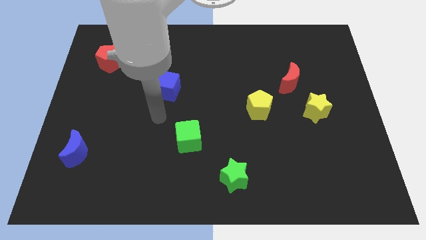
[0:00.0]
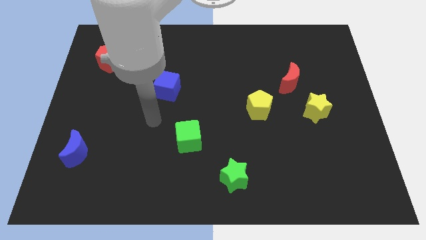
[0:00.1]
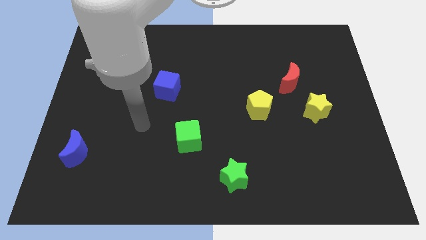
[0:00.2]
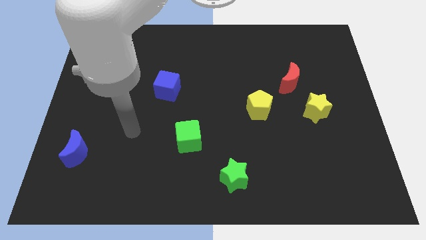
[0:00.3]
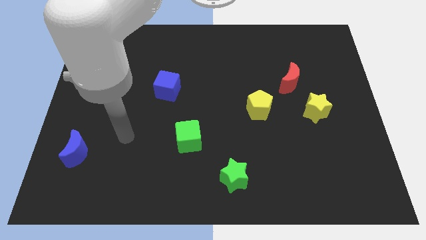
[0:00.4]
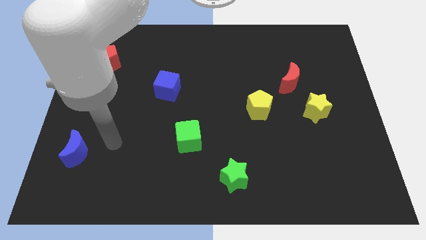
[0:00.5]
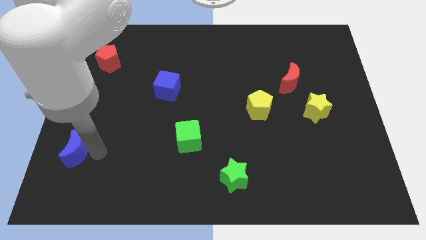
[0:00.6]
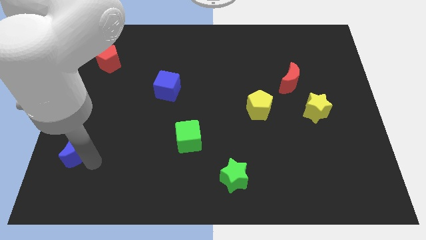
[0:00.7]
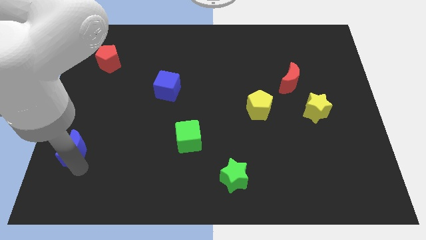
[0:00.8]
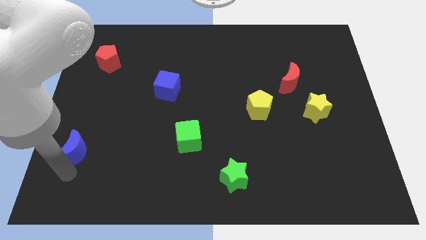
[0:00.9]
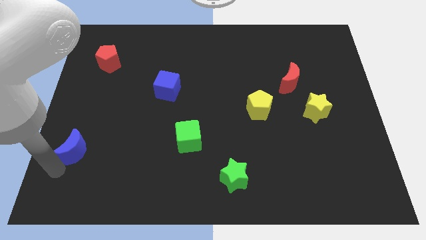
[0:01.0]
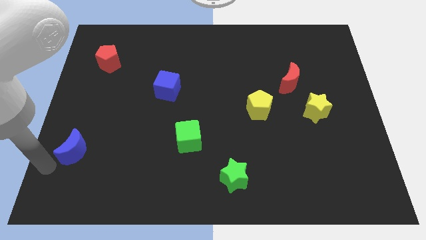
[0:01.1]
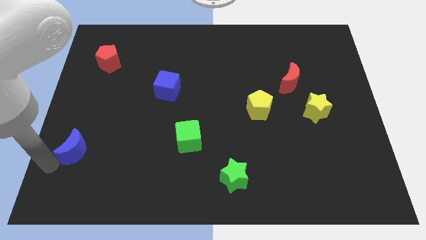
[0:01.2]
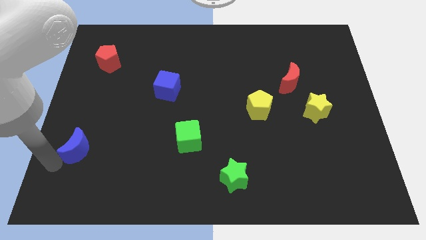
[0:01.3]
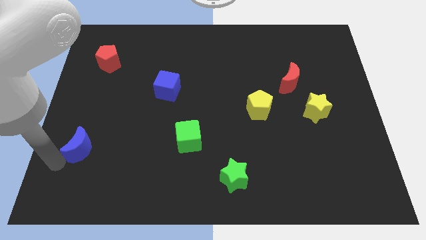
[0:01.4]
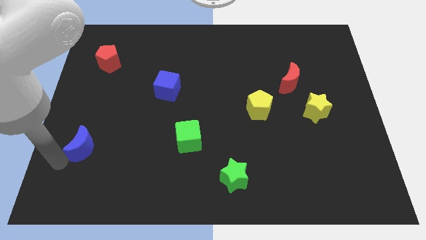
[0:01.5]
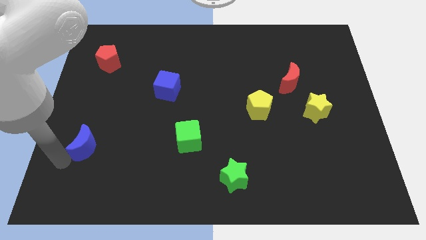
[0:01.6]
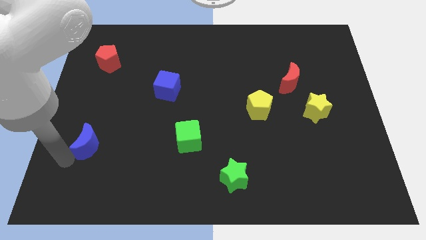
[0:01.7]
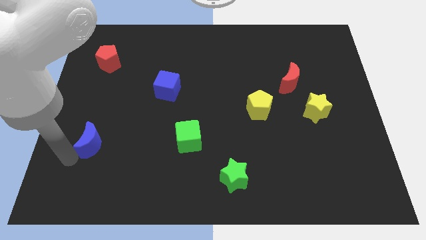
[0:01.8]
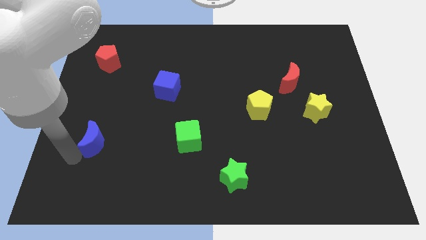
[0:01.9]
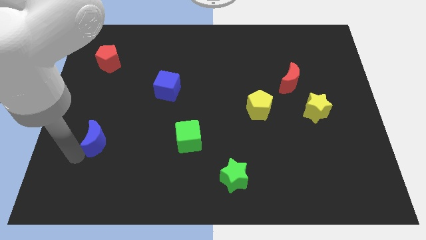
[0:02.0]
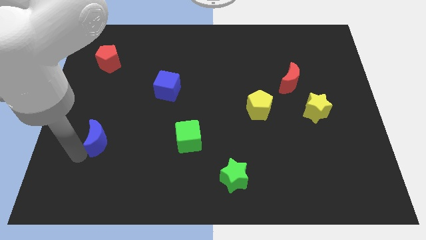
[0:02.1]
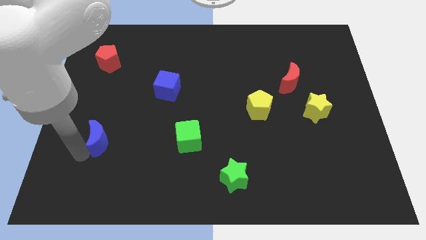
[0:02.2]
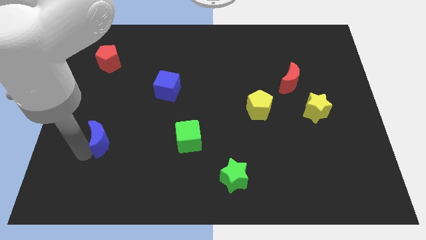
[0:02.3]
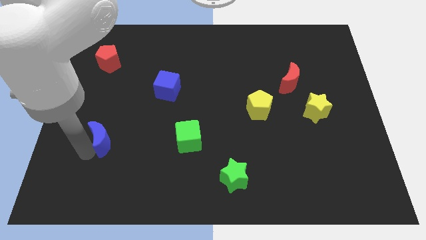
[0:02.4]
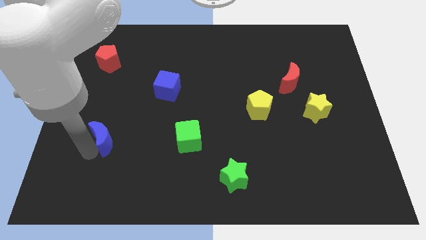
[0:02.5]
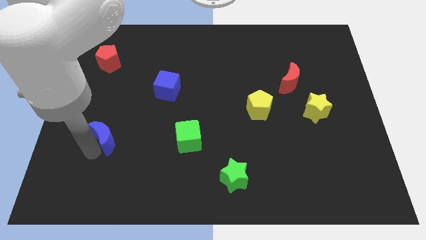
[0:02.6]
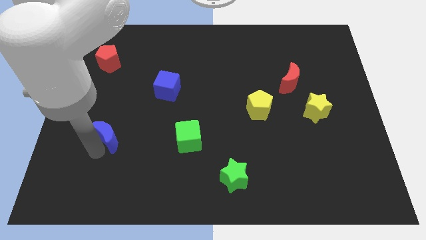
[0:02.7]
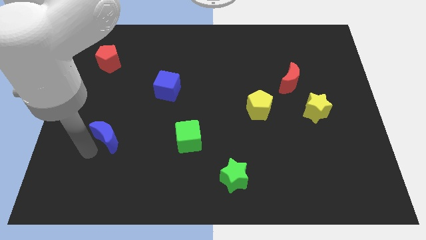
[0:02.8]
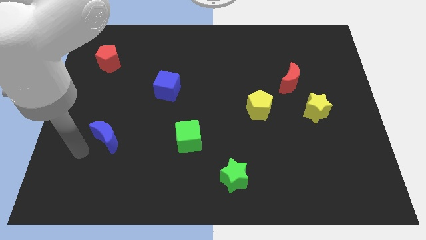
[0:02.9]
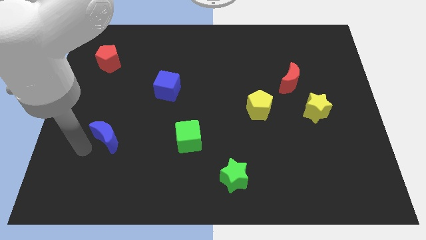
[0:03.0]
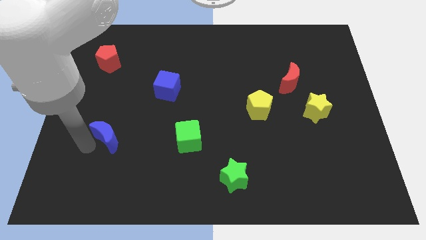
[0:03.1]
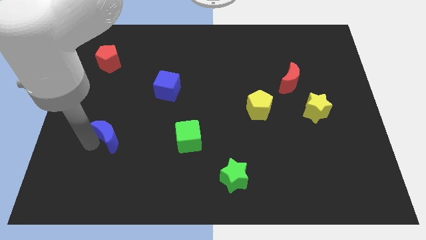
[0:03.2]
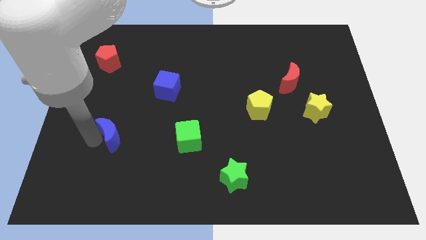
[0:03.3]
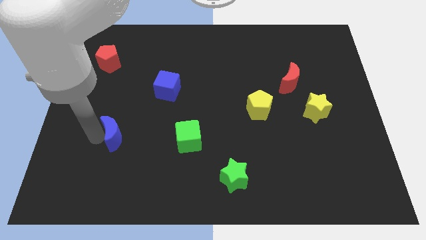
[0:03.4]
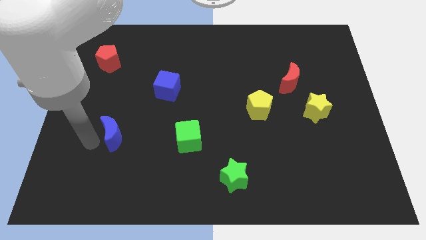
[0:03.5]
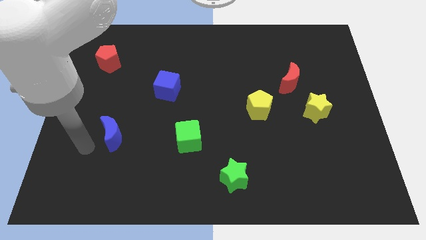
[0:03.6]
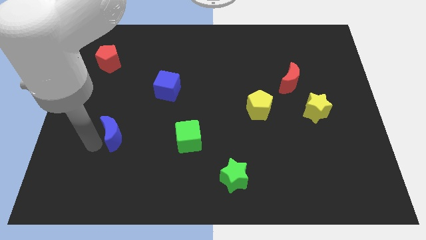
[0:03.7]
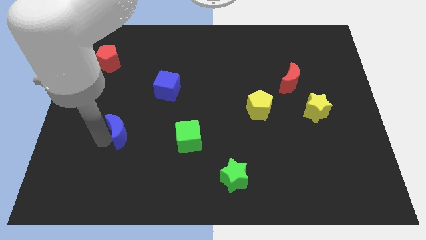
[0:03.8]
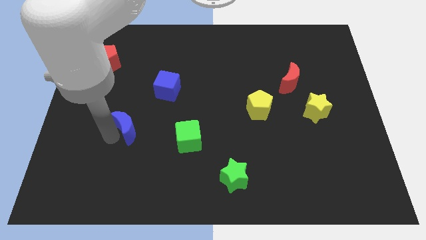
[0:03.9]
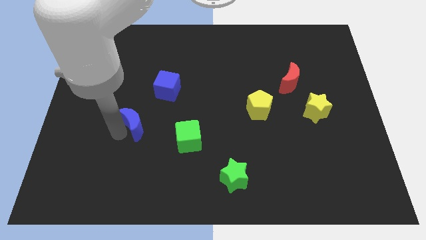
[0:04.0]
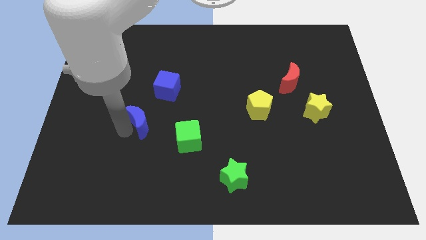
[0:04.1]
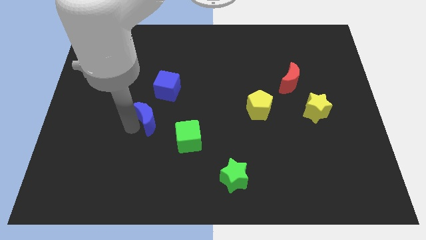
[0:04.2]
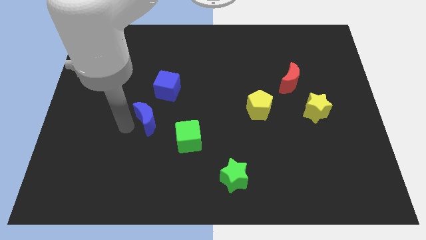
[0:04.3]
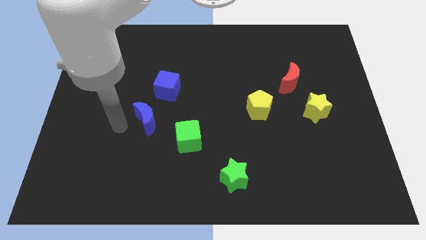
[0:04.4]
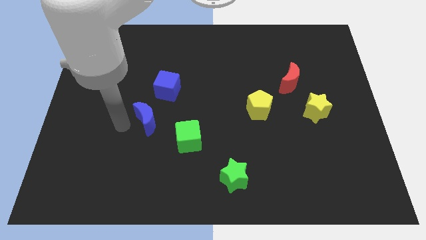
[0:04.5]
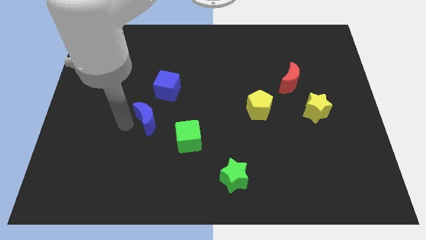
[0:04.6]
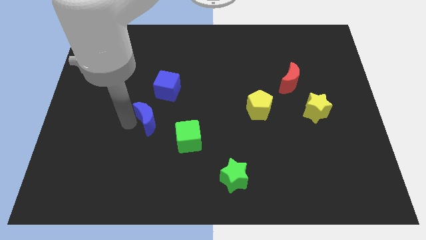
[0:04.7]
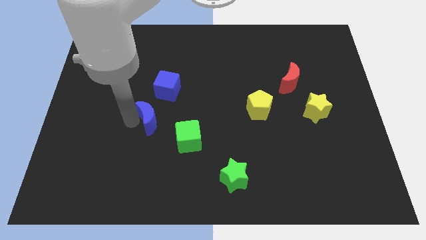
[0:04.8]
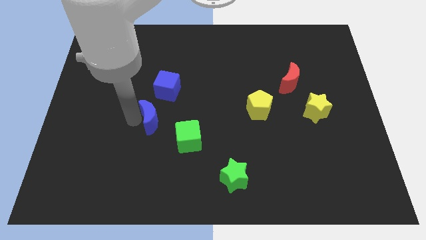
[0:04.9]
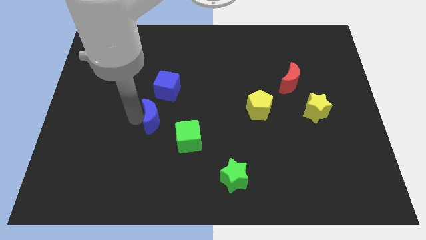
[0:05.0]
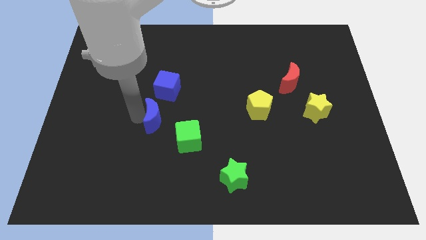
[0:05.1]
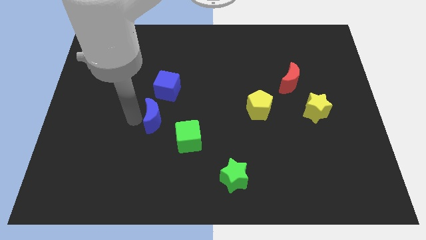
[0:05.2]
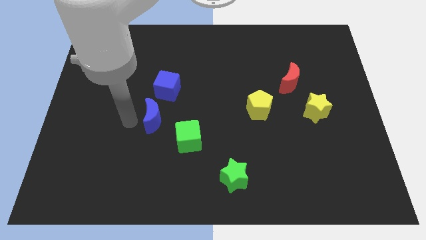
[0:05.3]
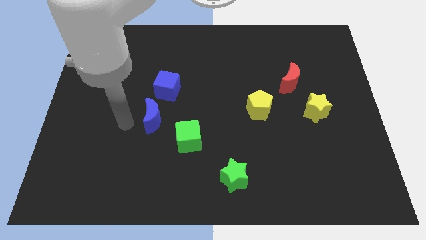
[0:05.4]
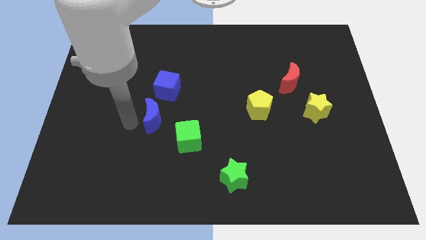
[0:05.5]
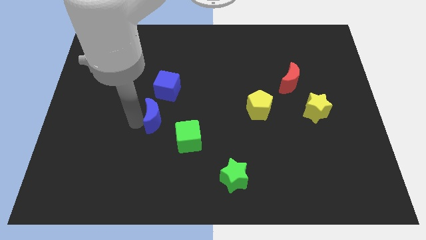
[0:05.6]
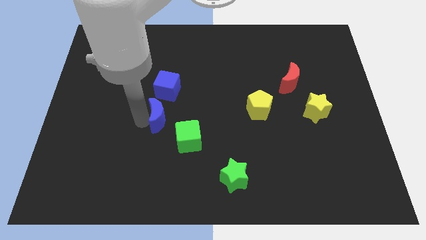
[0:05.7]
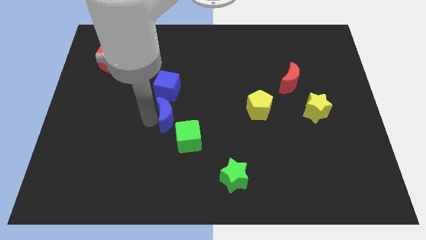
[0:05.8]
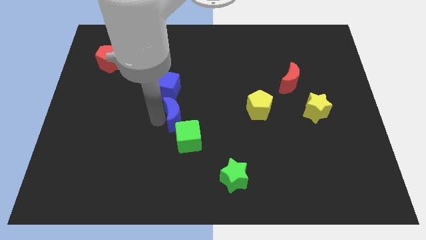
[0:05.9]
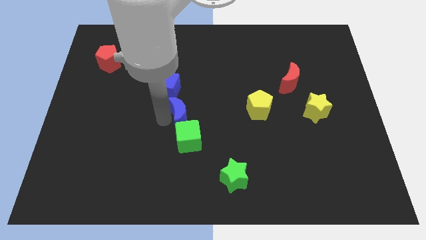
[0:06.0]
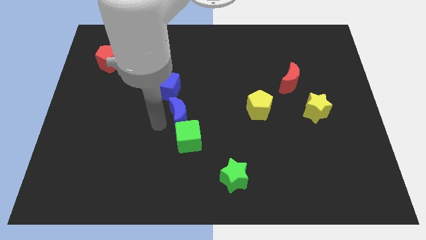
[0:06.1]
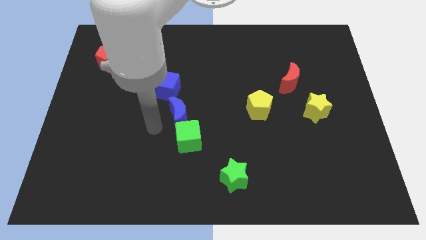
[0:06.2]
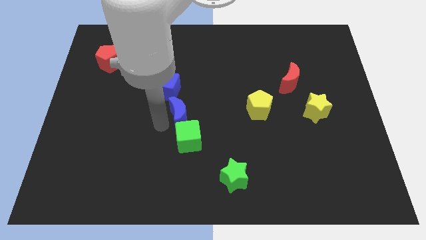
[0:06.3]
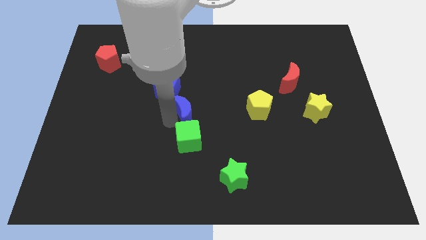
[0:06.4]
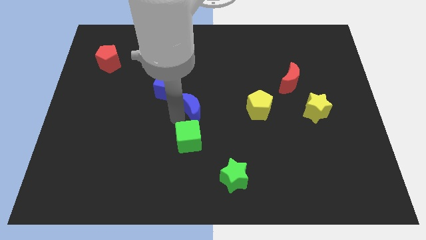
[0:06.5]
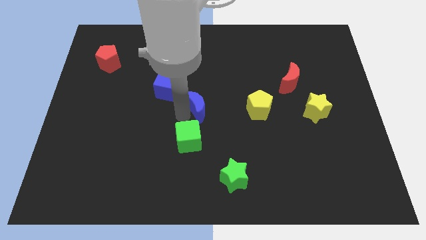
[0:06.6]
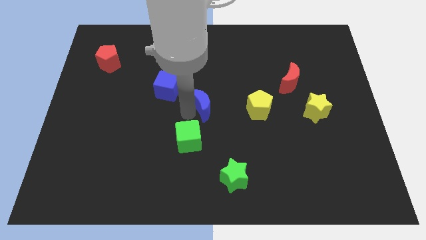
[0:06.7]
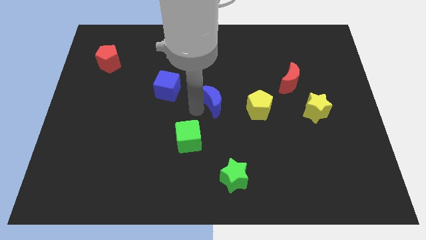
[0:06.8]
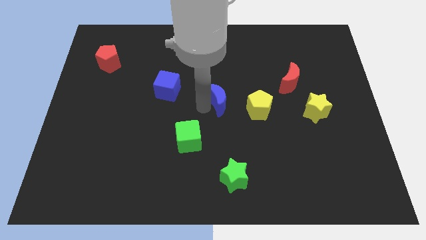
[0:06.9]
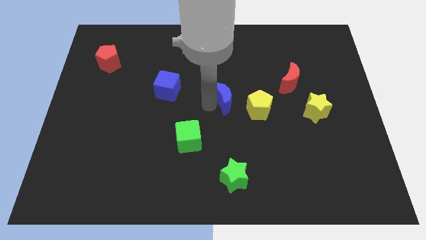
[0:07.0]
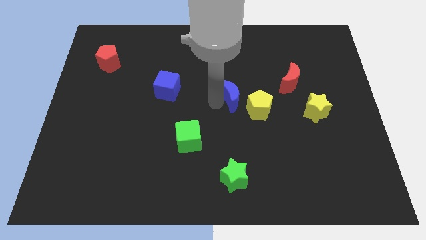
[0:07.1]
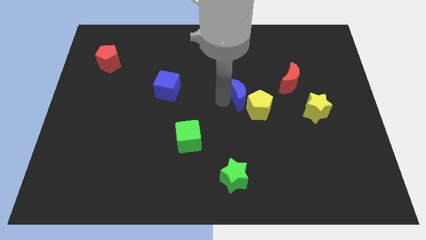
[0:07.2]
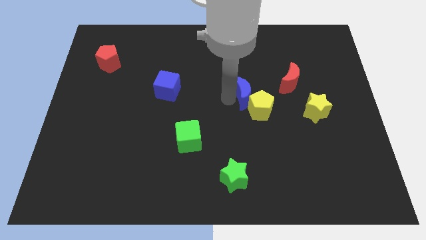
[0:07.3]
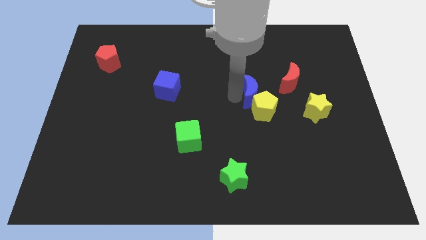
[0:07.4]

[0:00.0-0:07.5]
push the blue moon to the bottom left side of the red moon
